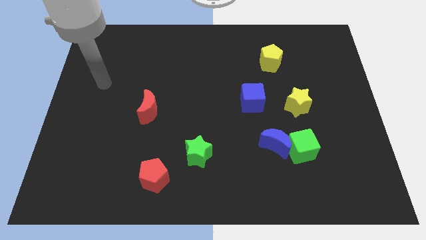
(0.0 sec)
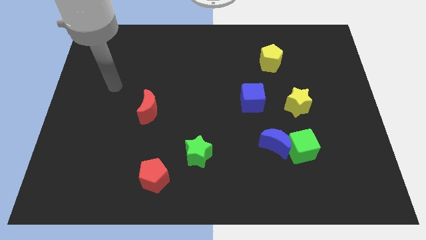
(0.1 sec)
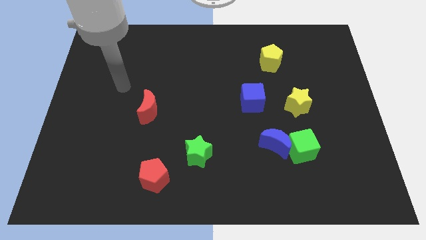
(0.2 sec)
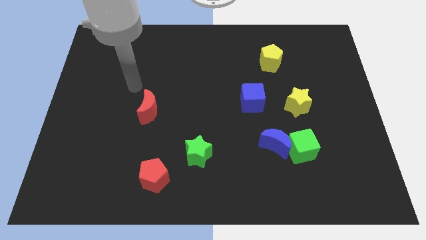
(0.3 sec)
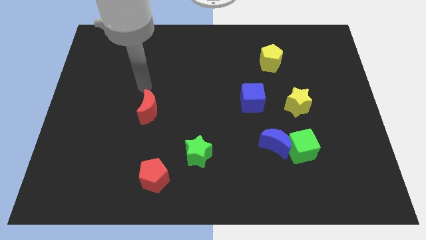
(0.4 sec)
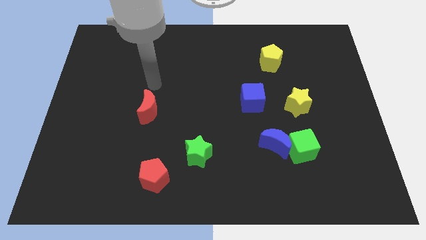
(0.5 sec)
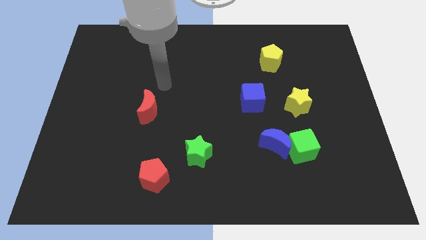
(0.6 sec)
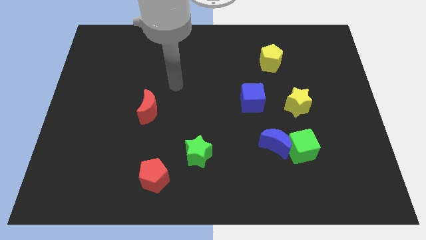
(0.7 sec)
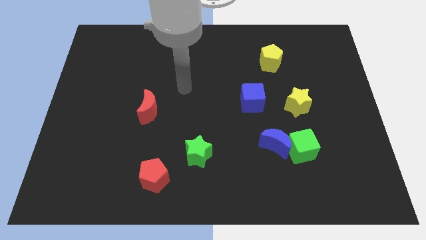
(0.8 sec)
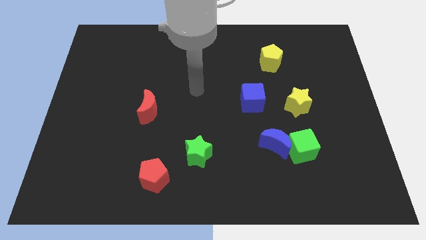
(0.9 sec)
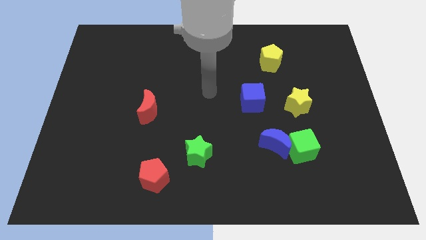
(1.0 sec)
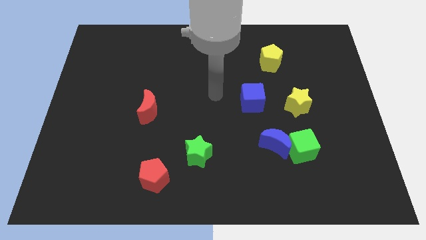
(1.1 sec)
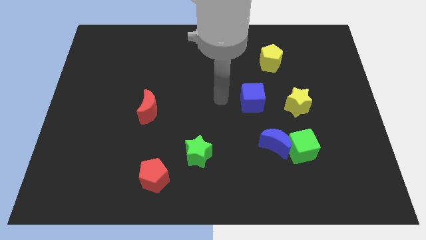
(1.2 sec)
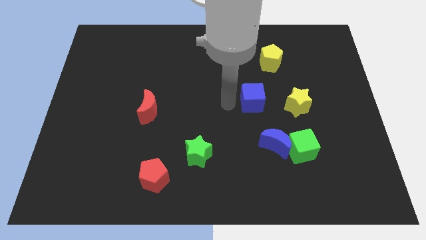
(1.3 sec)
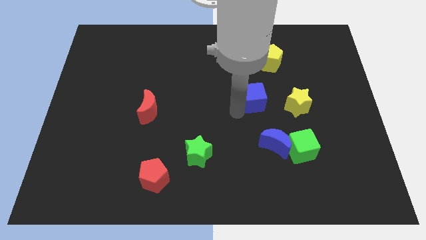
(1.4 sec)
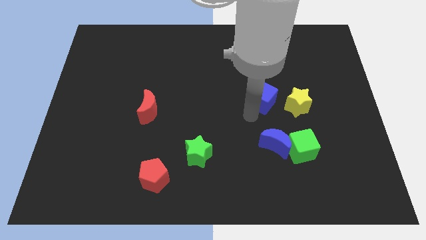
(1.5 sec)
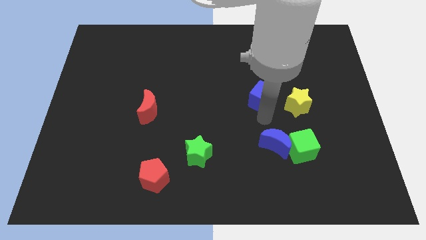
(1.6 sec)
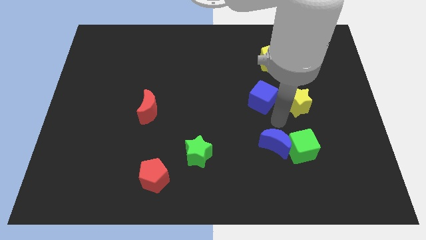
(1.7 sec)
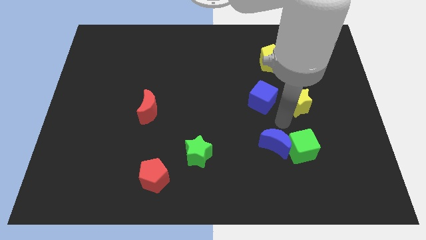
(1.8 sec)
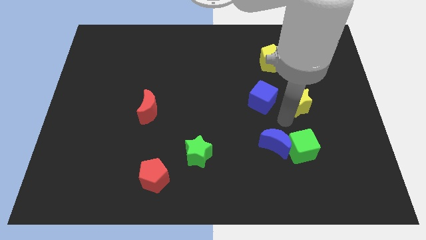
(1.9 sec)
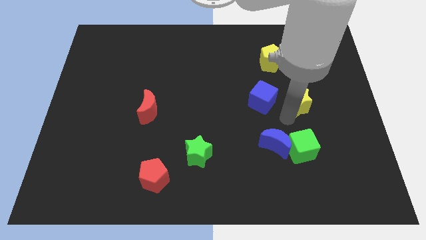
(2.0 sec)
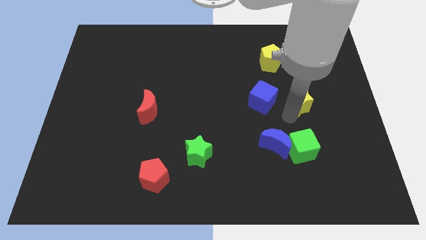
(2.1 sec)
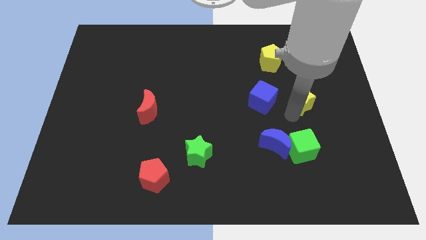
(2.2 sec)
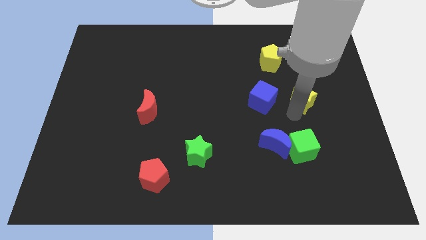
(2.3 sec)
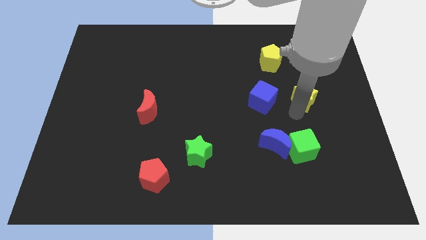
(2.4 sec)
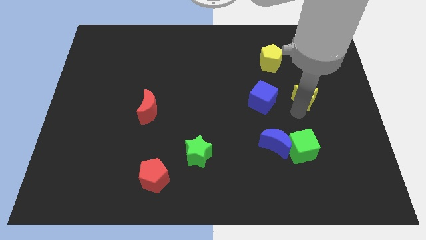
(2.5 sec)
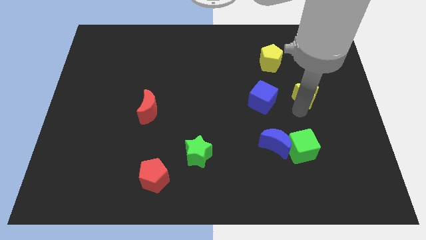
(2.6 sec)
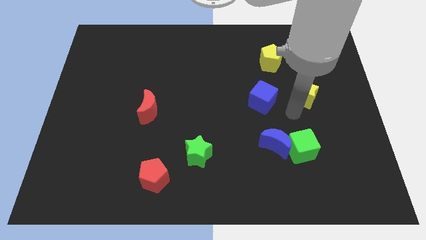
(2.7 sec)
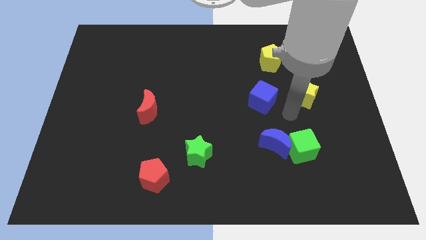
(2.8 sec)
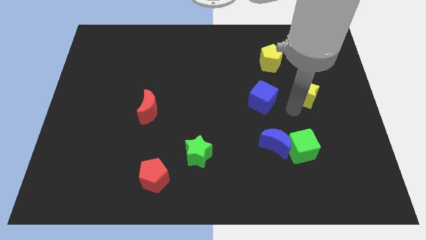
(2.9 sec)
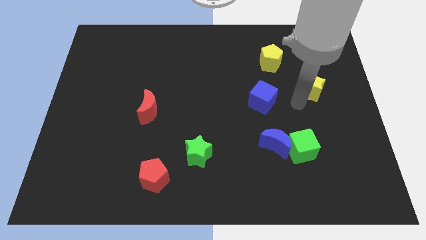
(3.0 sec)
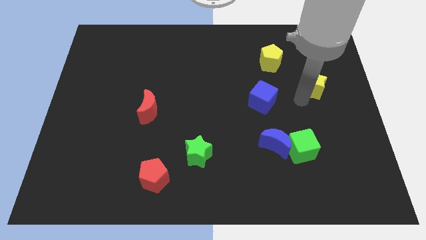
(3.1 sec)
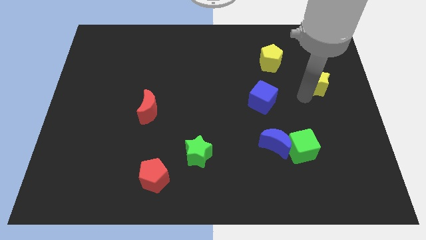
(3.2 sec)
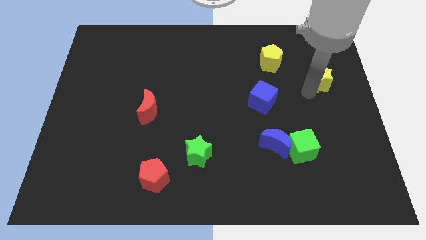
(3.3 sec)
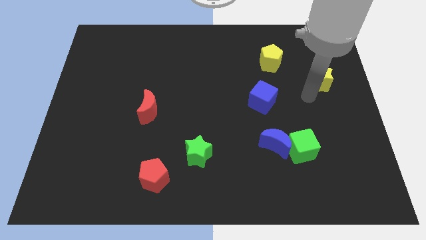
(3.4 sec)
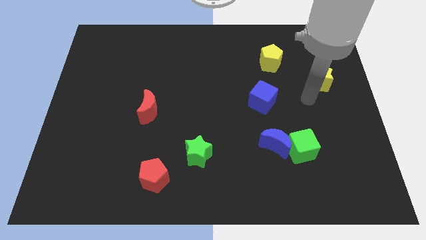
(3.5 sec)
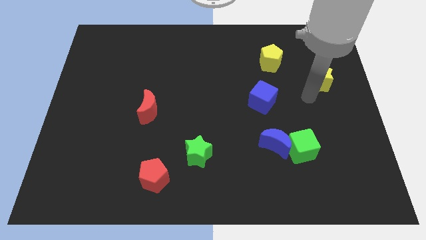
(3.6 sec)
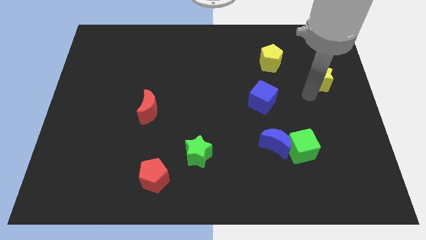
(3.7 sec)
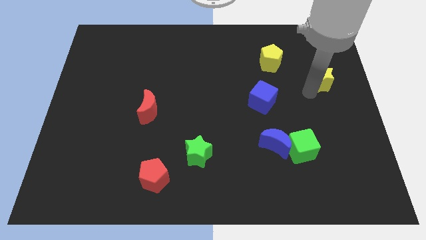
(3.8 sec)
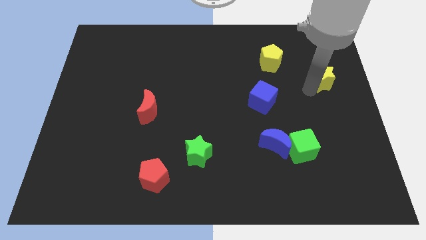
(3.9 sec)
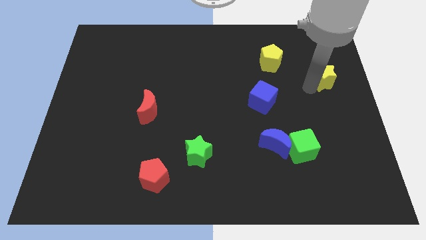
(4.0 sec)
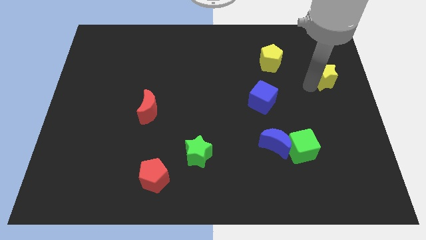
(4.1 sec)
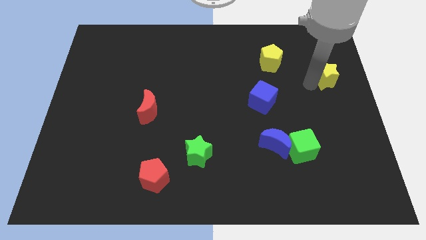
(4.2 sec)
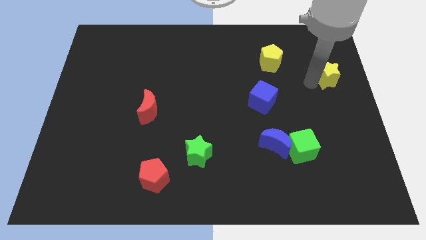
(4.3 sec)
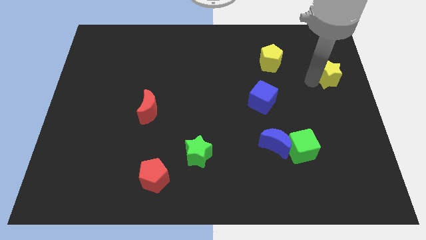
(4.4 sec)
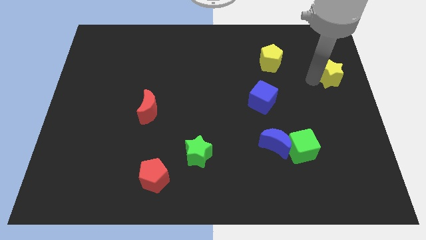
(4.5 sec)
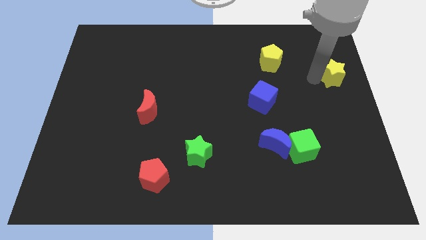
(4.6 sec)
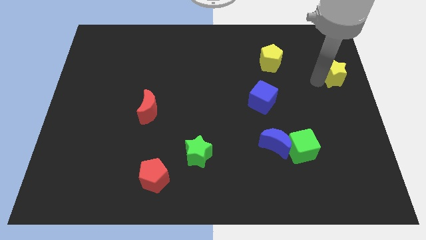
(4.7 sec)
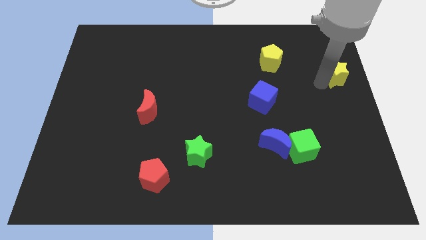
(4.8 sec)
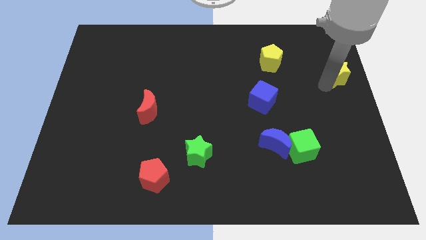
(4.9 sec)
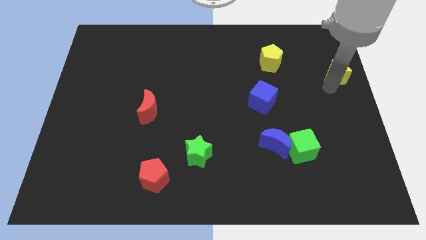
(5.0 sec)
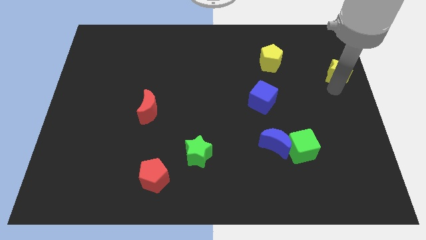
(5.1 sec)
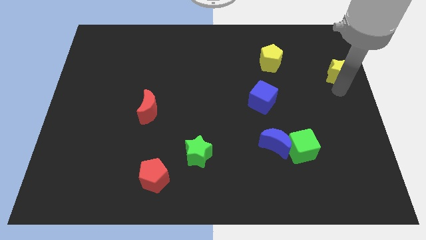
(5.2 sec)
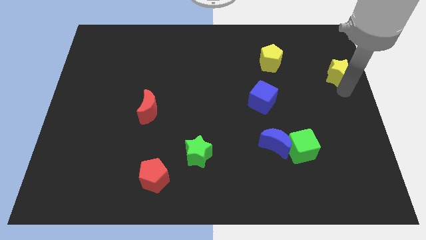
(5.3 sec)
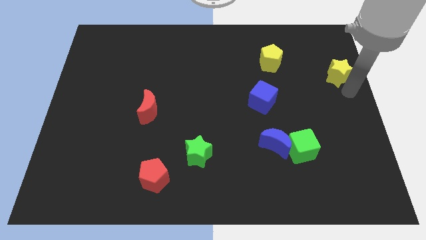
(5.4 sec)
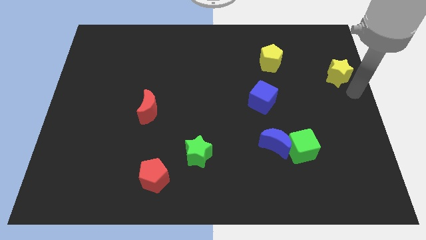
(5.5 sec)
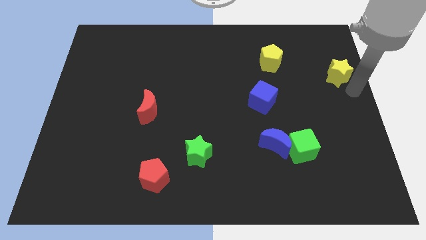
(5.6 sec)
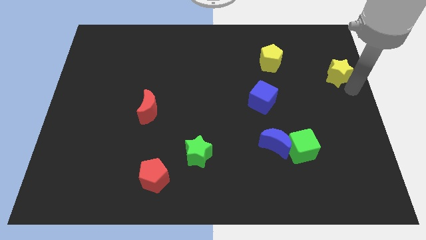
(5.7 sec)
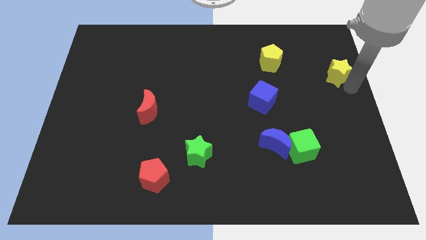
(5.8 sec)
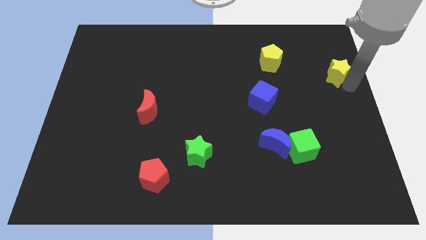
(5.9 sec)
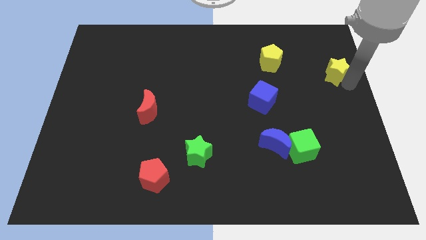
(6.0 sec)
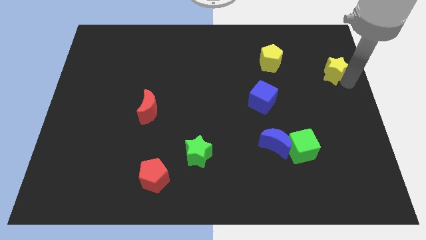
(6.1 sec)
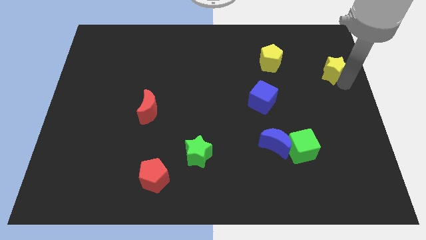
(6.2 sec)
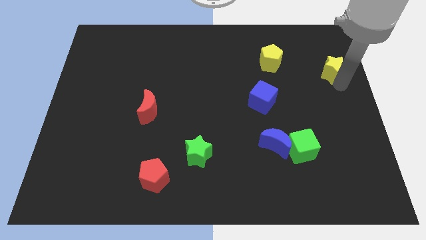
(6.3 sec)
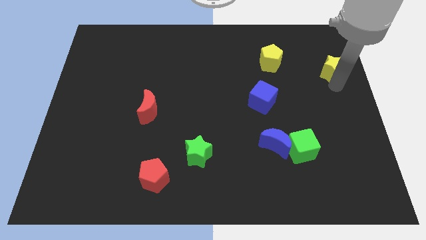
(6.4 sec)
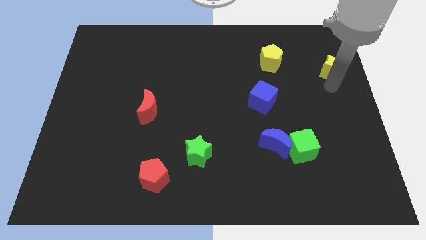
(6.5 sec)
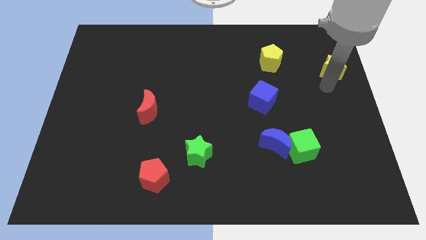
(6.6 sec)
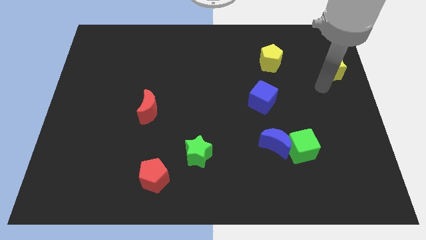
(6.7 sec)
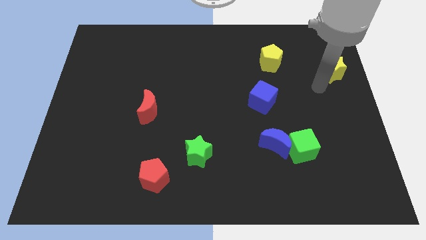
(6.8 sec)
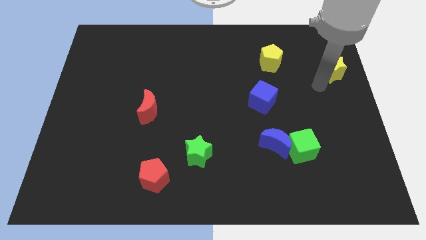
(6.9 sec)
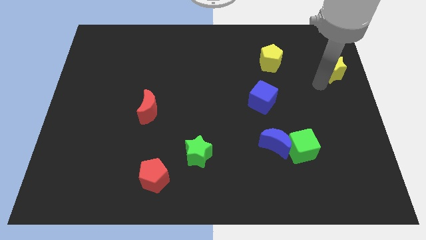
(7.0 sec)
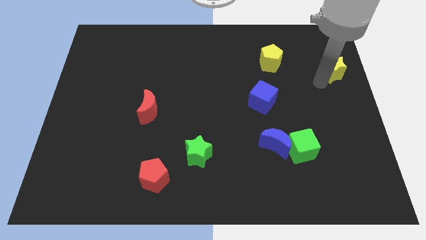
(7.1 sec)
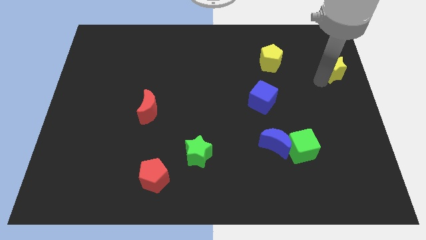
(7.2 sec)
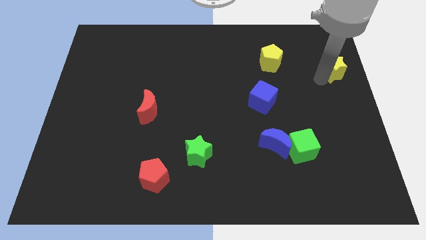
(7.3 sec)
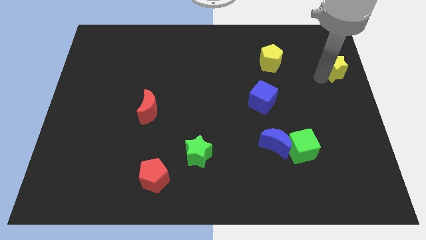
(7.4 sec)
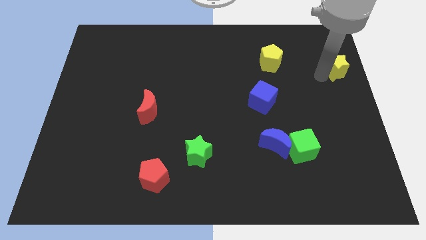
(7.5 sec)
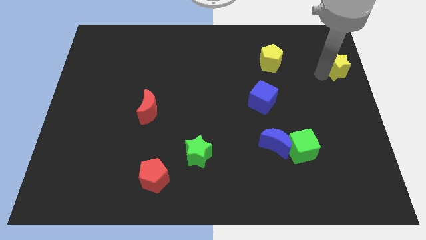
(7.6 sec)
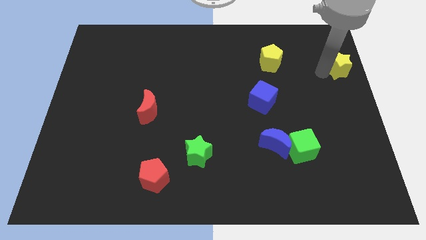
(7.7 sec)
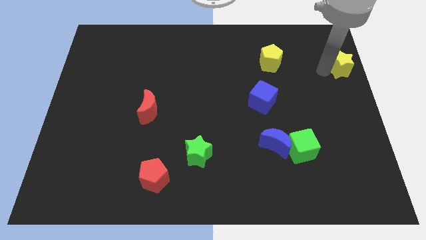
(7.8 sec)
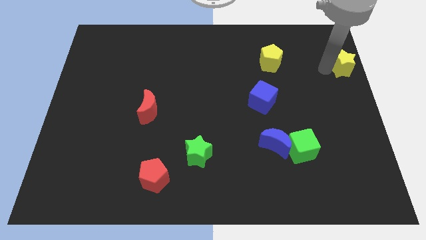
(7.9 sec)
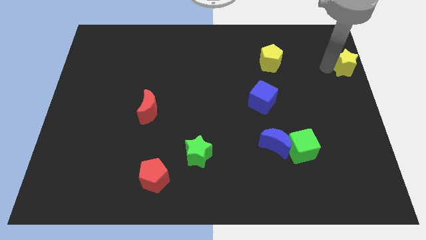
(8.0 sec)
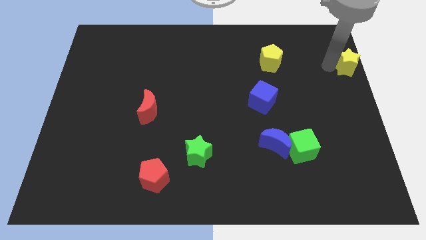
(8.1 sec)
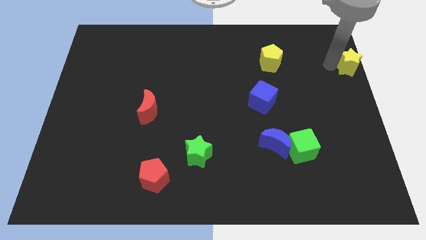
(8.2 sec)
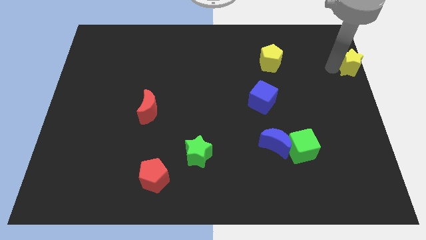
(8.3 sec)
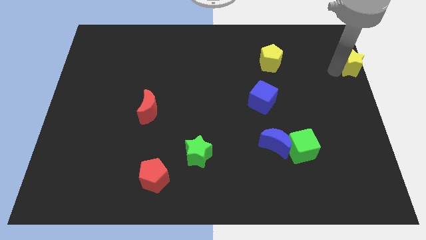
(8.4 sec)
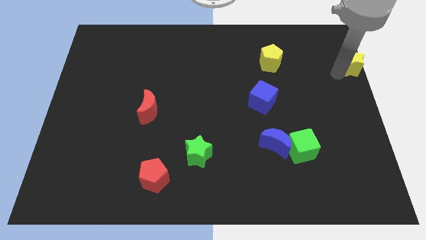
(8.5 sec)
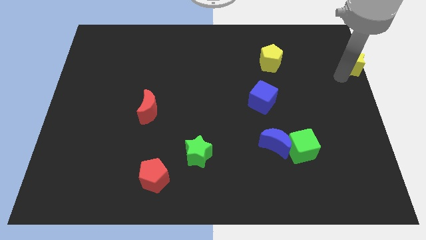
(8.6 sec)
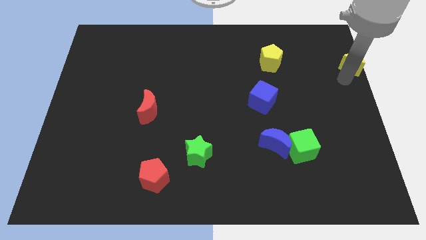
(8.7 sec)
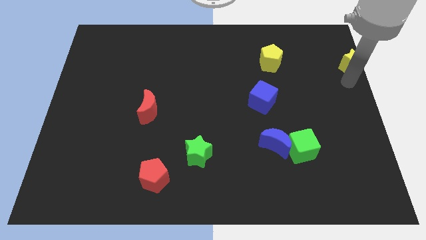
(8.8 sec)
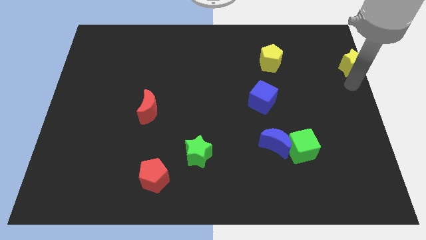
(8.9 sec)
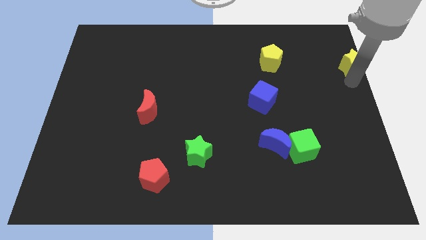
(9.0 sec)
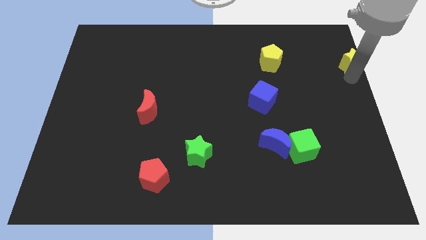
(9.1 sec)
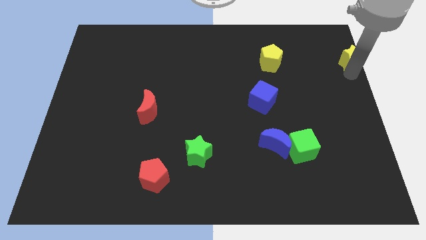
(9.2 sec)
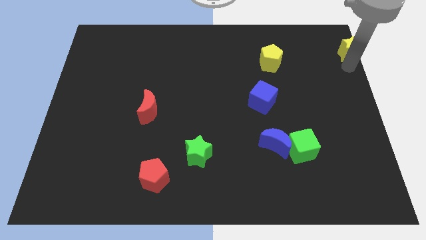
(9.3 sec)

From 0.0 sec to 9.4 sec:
put the yellow star to the upper right corner
